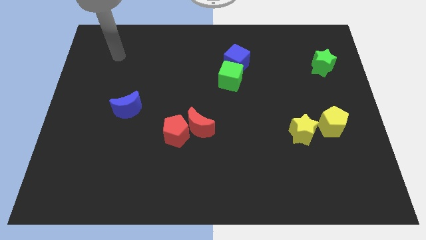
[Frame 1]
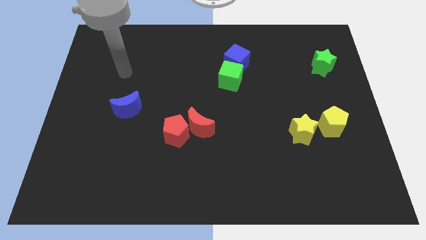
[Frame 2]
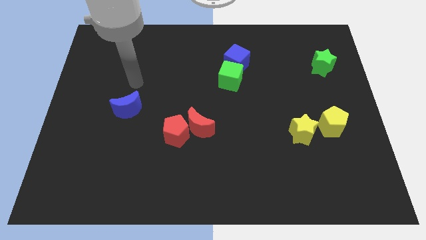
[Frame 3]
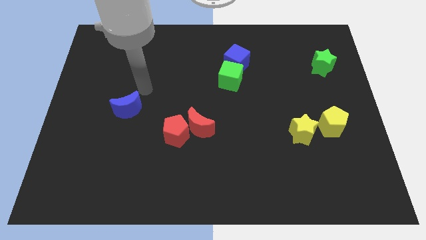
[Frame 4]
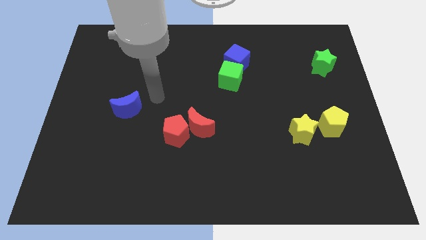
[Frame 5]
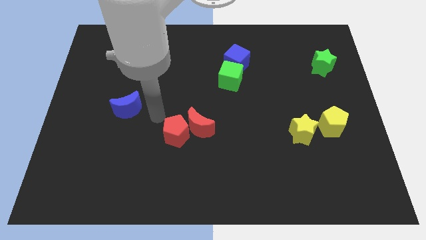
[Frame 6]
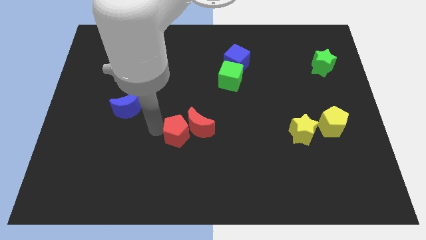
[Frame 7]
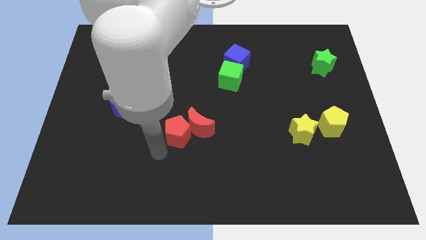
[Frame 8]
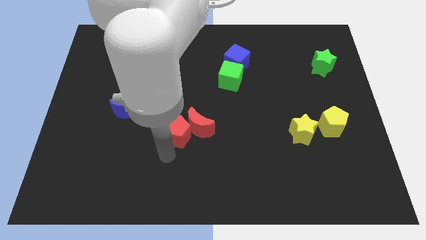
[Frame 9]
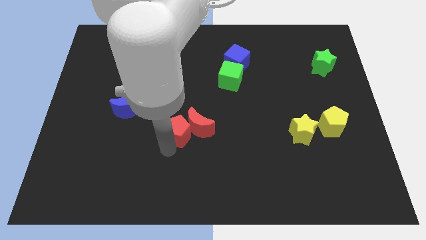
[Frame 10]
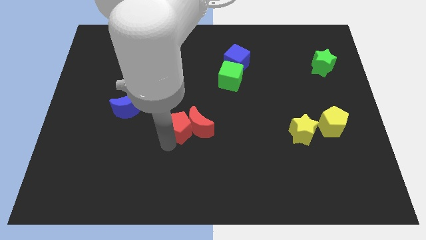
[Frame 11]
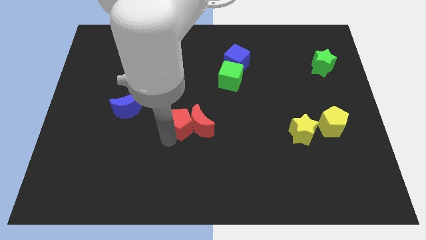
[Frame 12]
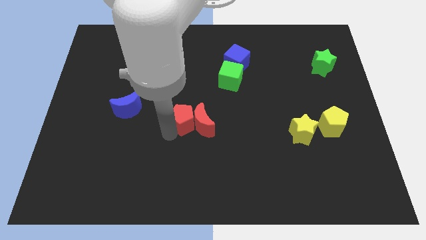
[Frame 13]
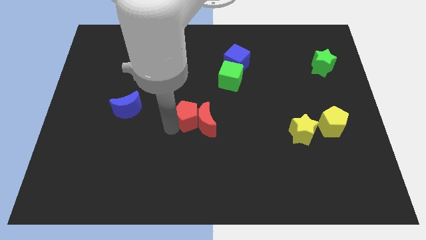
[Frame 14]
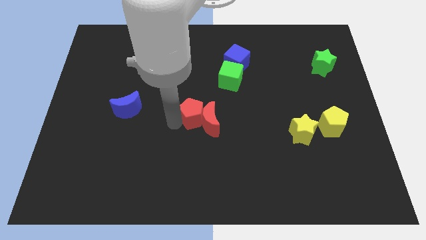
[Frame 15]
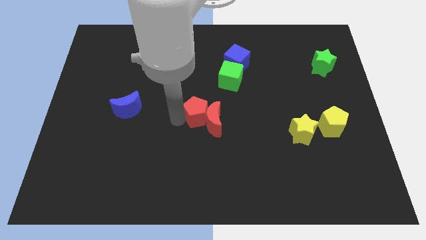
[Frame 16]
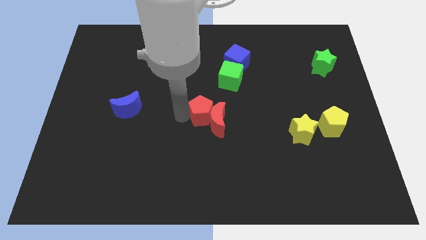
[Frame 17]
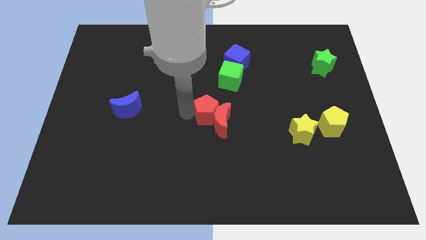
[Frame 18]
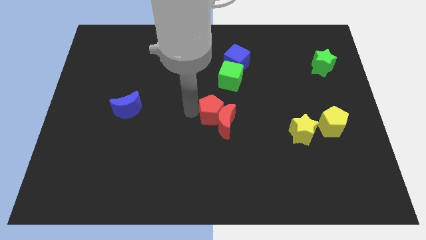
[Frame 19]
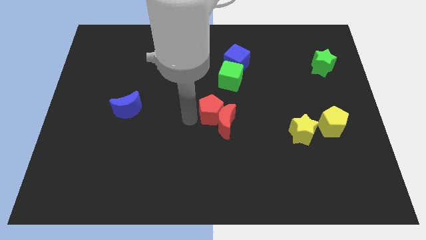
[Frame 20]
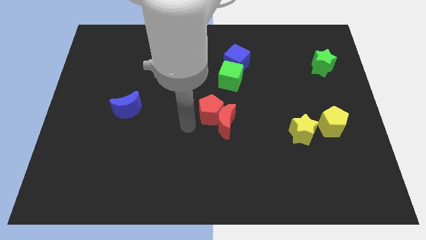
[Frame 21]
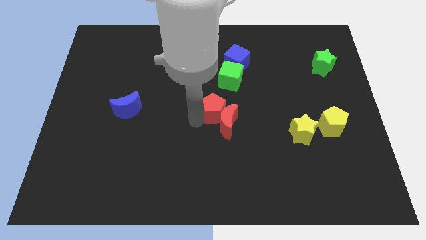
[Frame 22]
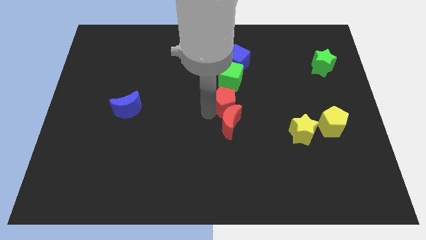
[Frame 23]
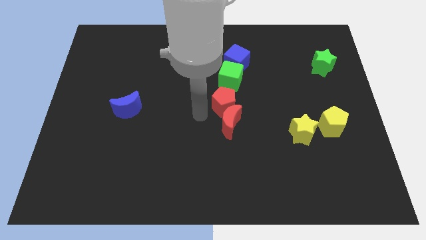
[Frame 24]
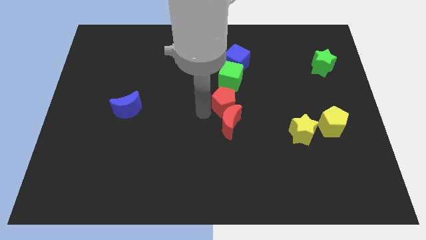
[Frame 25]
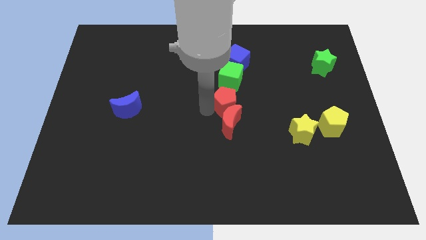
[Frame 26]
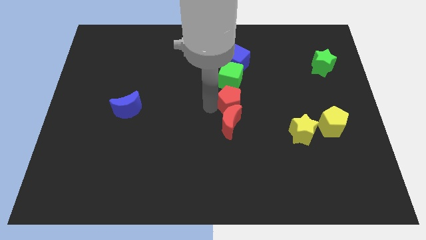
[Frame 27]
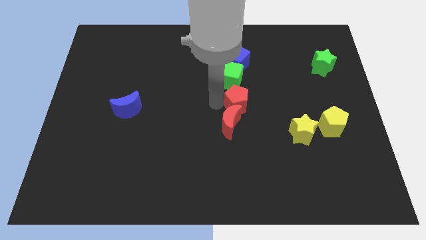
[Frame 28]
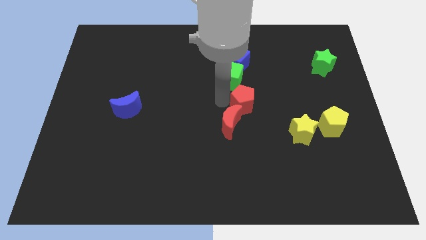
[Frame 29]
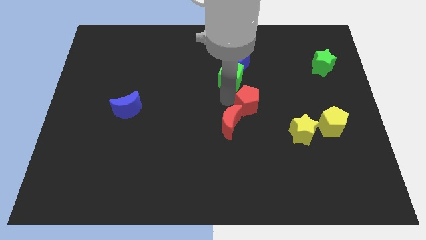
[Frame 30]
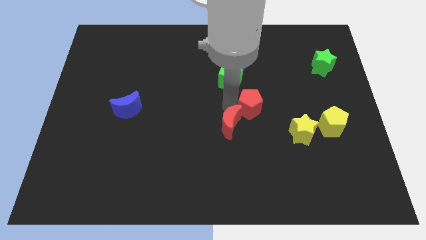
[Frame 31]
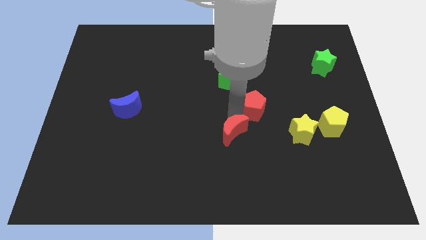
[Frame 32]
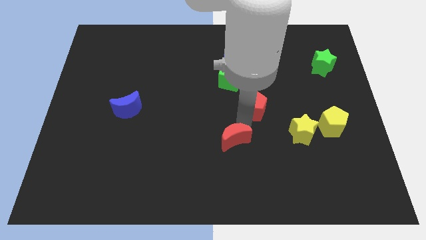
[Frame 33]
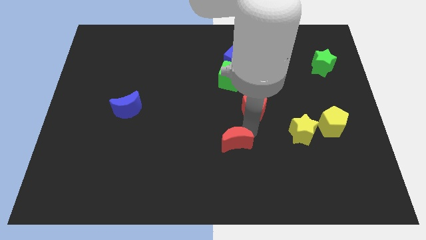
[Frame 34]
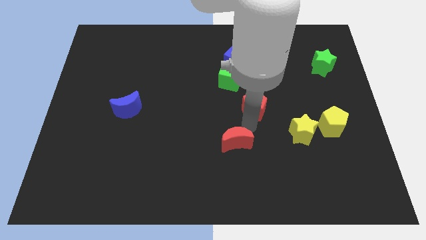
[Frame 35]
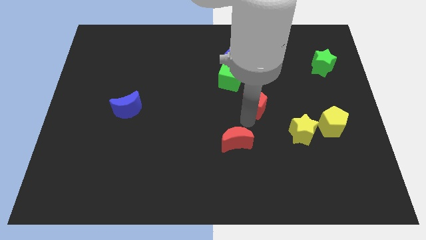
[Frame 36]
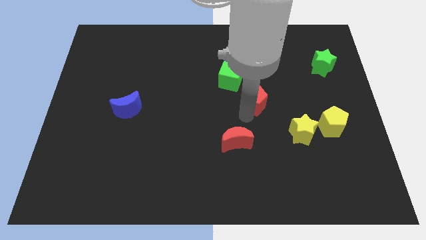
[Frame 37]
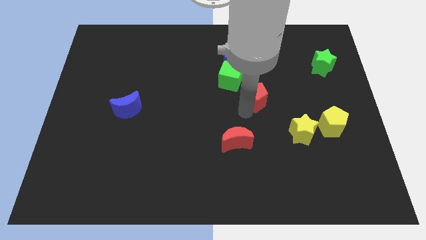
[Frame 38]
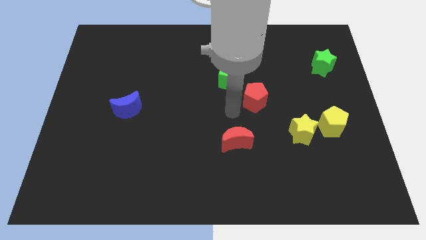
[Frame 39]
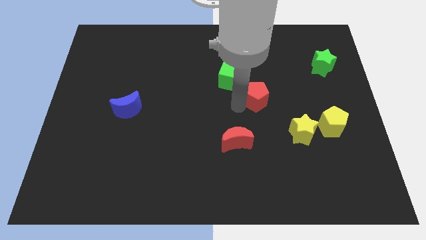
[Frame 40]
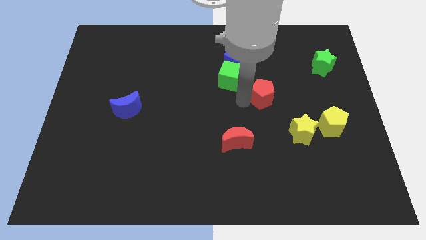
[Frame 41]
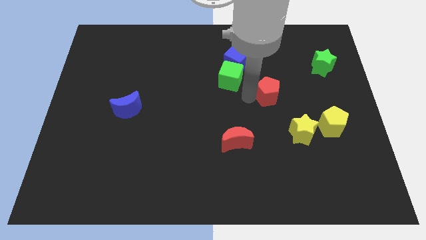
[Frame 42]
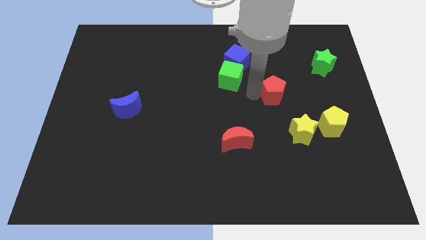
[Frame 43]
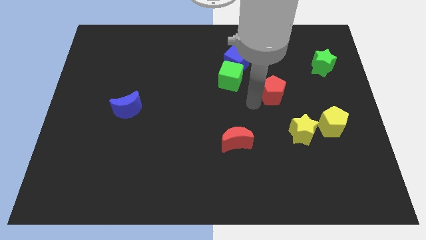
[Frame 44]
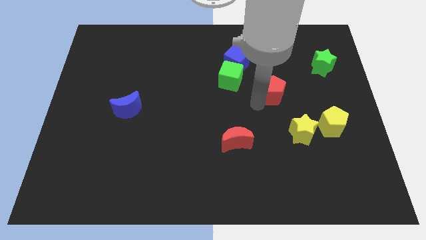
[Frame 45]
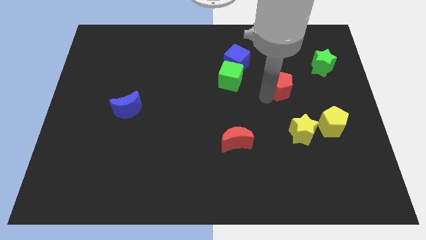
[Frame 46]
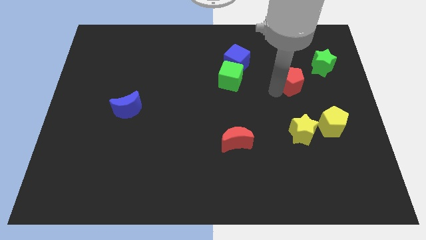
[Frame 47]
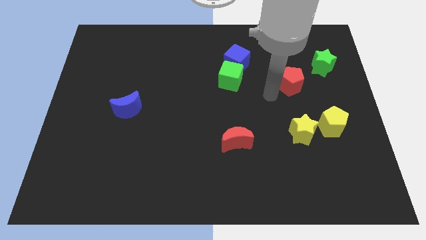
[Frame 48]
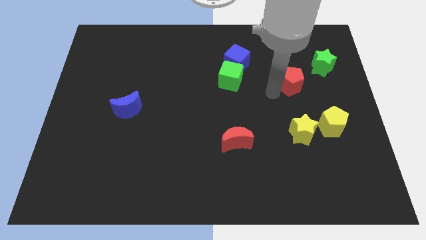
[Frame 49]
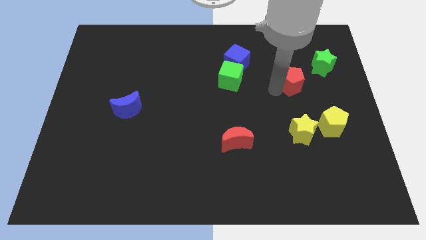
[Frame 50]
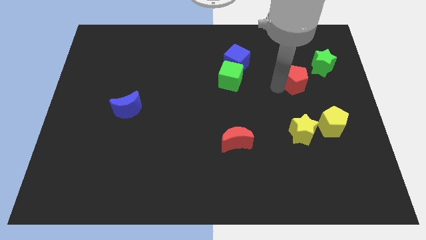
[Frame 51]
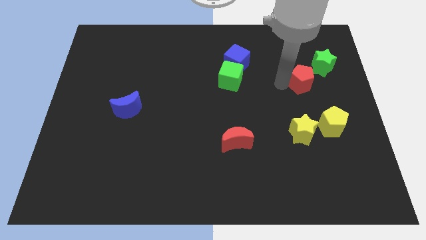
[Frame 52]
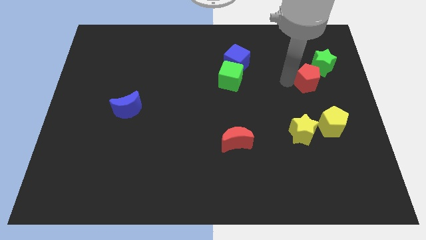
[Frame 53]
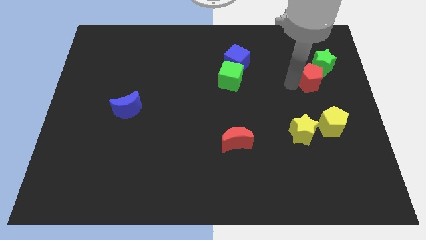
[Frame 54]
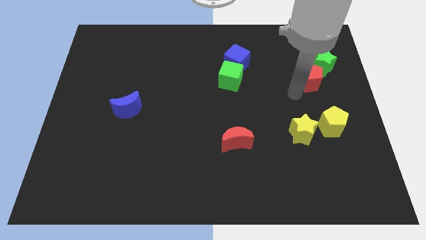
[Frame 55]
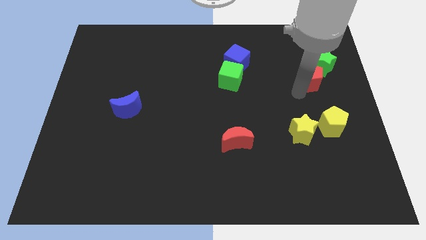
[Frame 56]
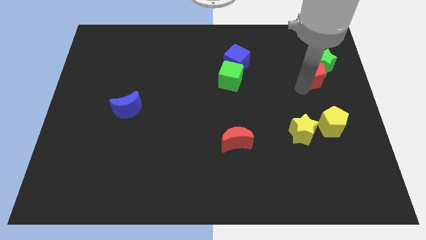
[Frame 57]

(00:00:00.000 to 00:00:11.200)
put the red pentagon to the green star

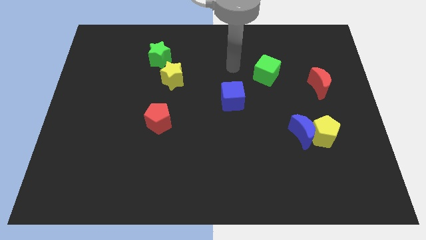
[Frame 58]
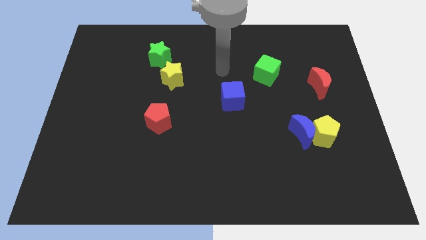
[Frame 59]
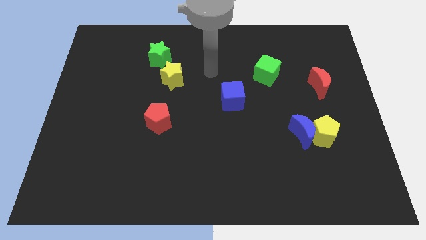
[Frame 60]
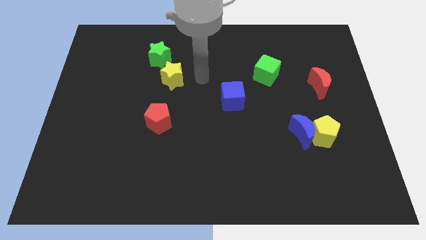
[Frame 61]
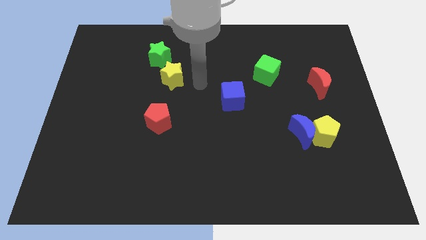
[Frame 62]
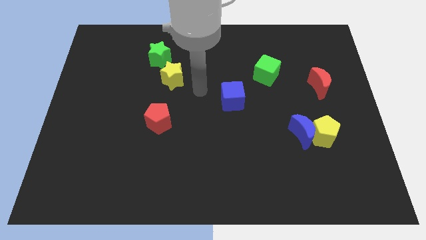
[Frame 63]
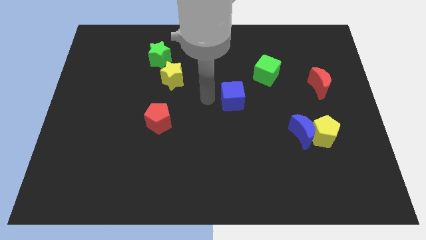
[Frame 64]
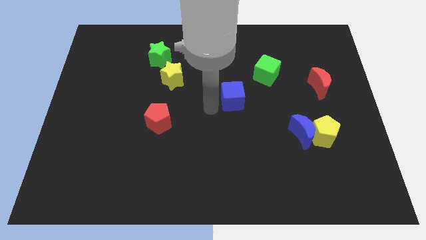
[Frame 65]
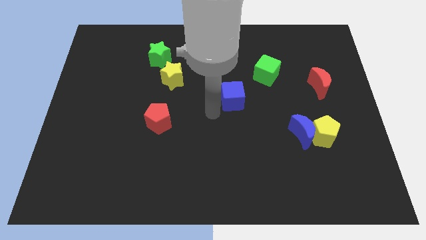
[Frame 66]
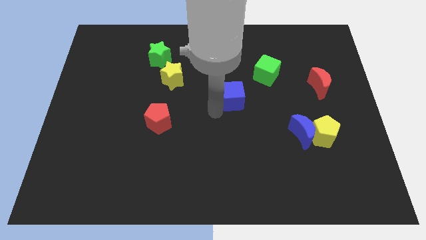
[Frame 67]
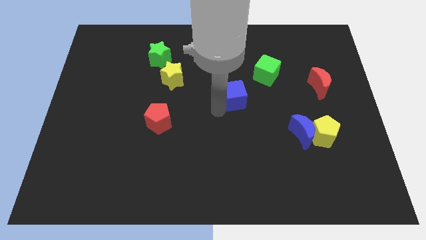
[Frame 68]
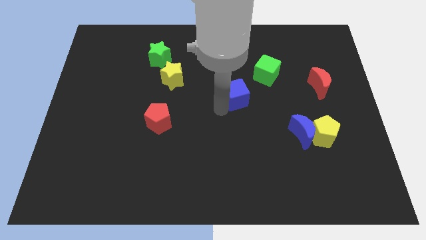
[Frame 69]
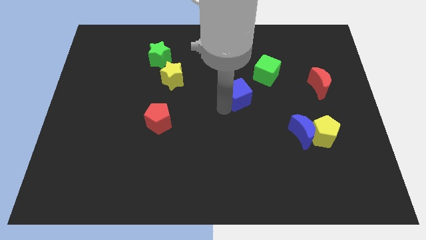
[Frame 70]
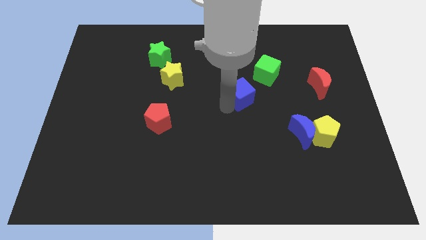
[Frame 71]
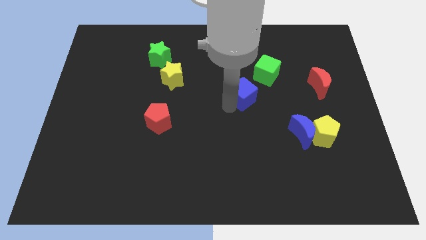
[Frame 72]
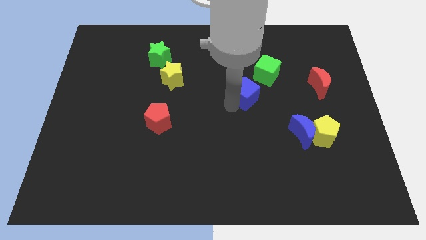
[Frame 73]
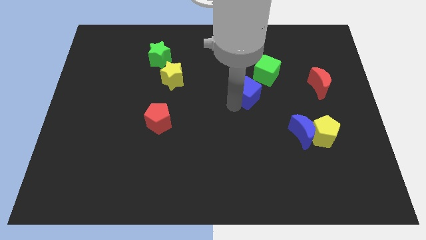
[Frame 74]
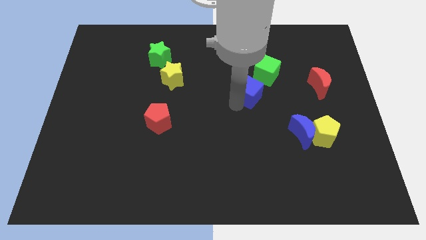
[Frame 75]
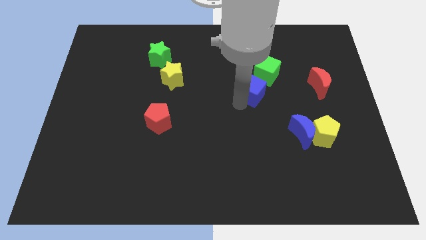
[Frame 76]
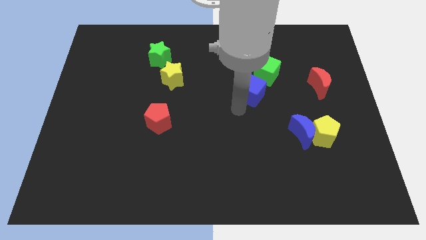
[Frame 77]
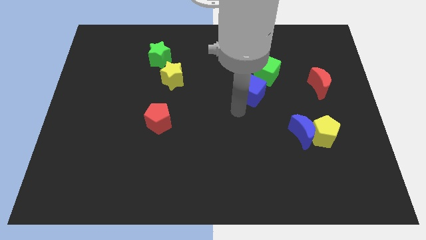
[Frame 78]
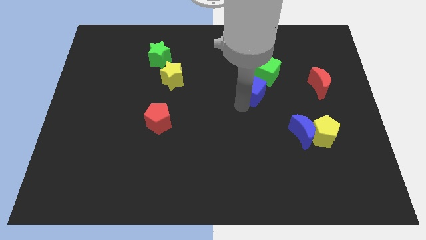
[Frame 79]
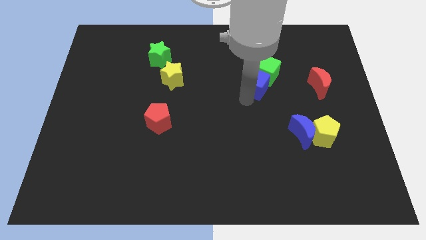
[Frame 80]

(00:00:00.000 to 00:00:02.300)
move the blue cube to the green cube
